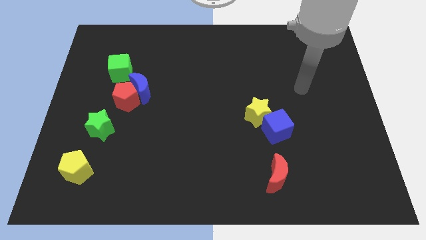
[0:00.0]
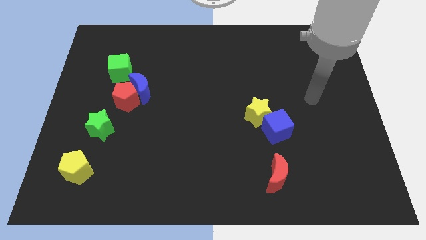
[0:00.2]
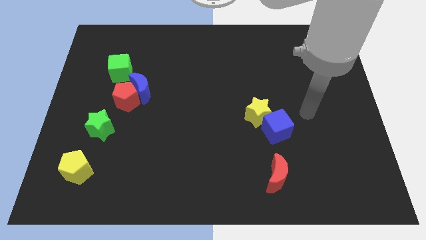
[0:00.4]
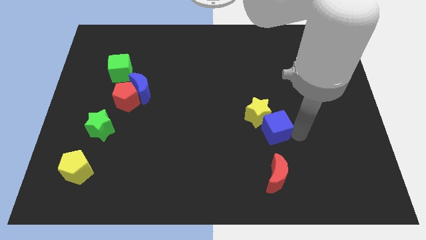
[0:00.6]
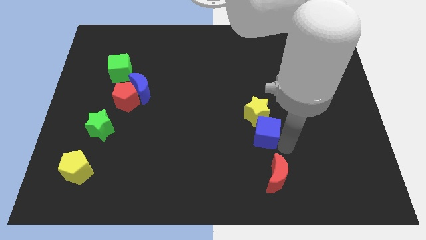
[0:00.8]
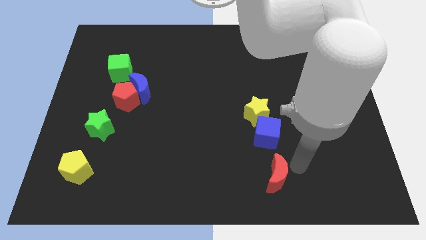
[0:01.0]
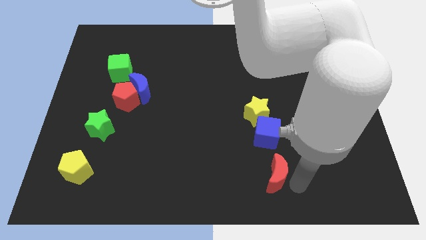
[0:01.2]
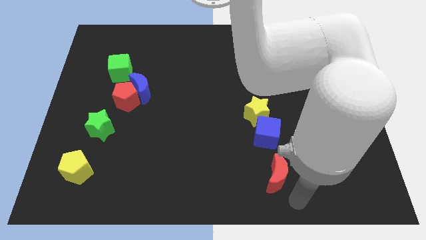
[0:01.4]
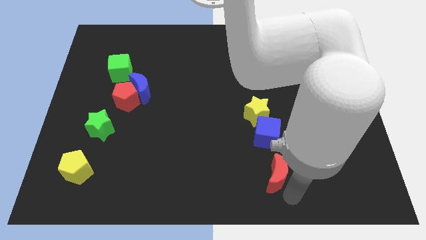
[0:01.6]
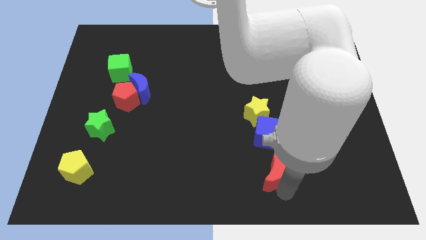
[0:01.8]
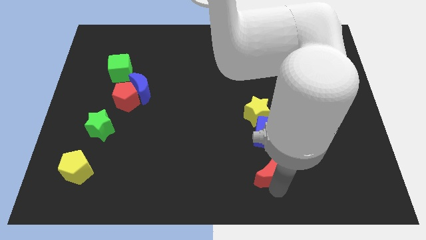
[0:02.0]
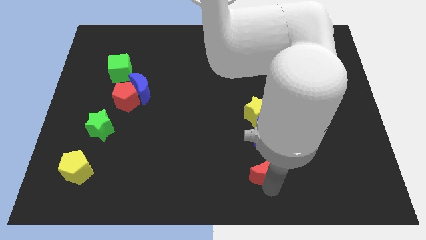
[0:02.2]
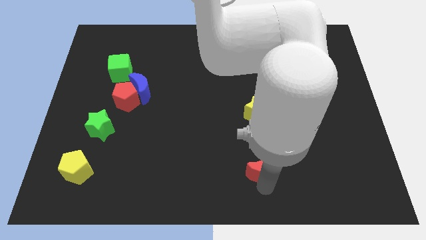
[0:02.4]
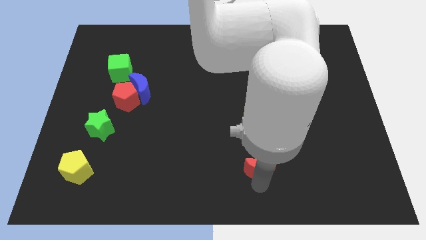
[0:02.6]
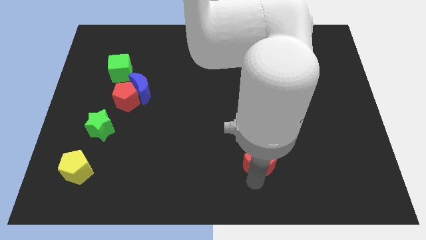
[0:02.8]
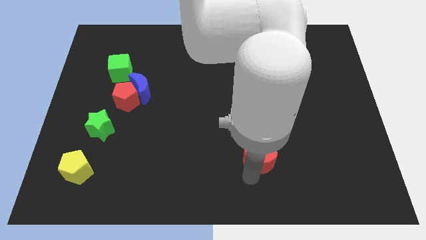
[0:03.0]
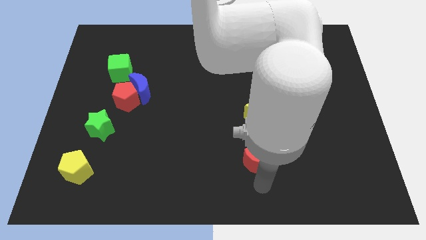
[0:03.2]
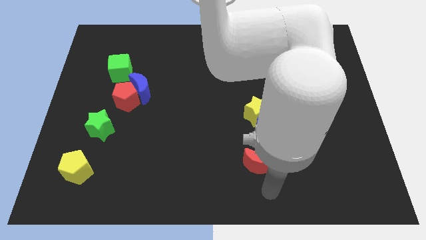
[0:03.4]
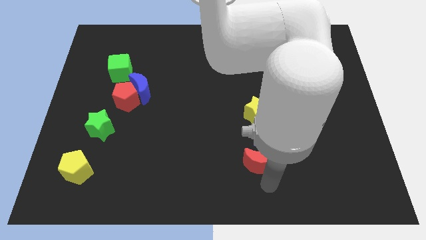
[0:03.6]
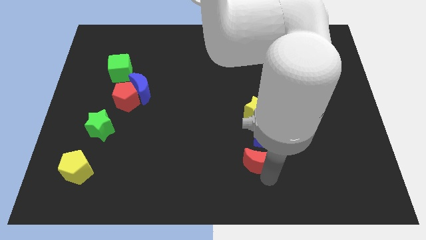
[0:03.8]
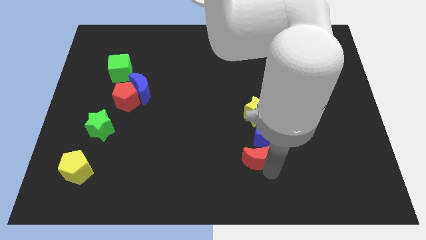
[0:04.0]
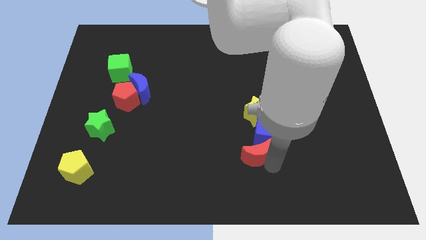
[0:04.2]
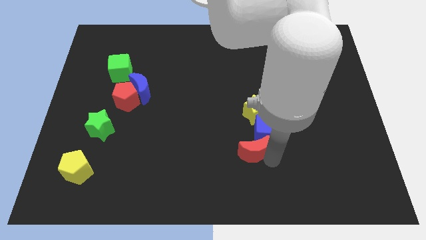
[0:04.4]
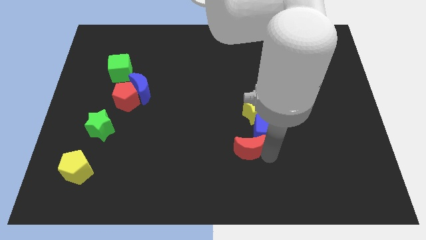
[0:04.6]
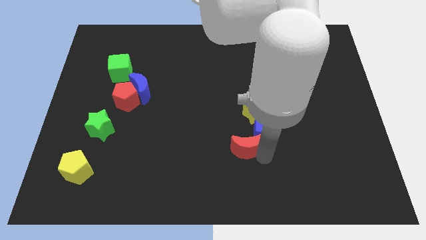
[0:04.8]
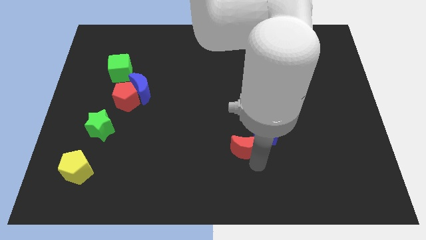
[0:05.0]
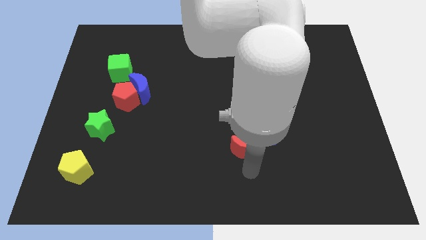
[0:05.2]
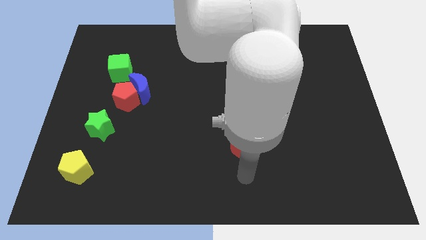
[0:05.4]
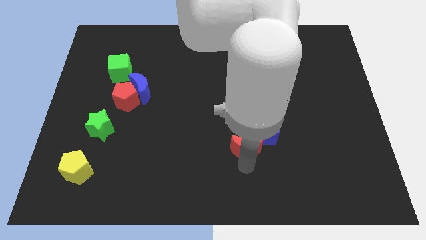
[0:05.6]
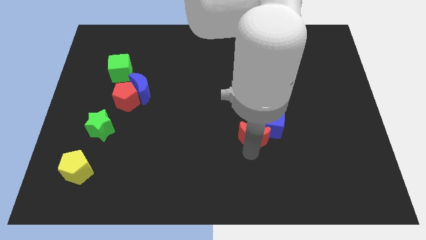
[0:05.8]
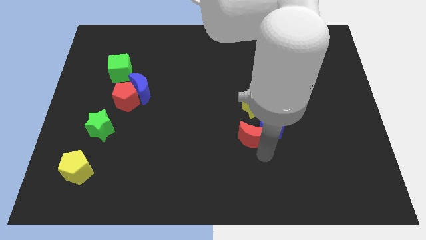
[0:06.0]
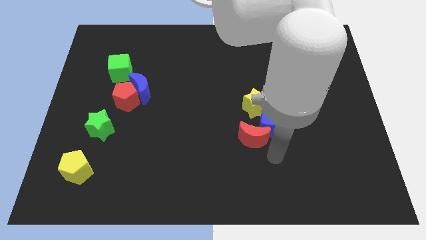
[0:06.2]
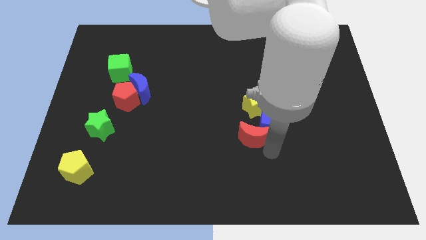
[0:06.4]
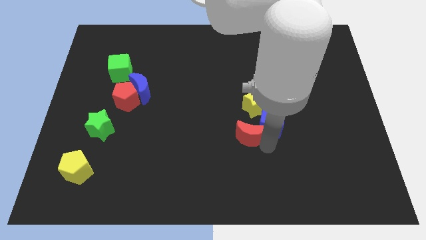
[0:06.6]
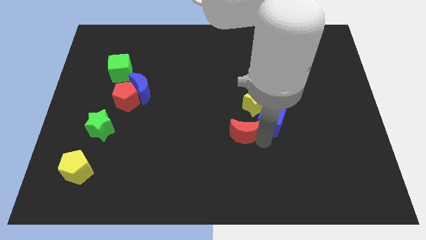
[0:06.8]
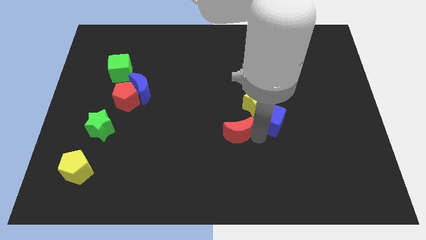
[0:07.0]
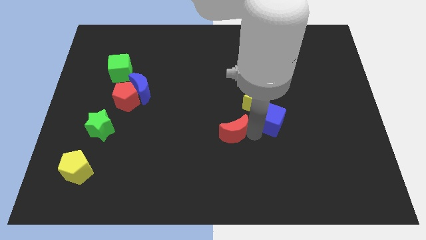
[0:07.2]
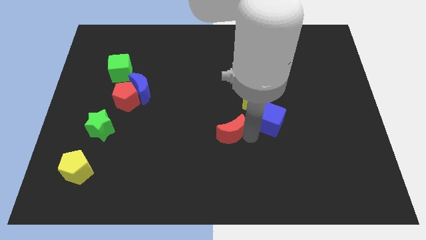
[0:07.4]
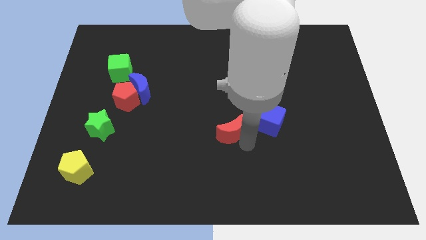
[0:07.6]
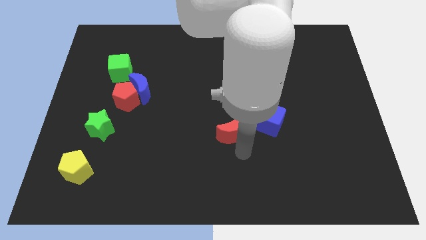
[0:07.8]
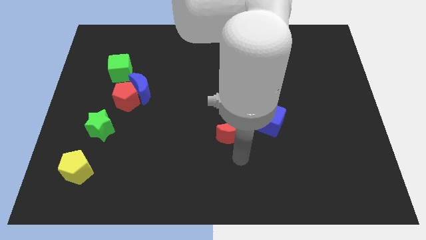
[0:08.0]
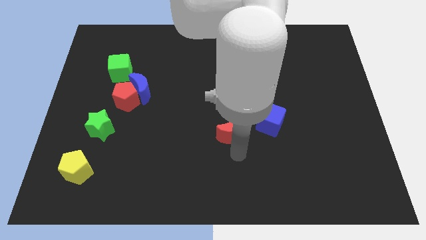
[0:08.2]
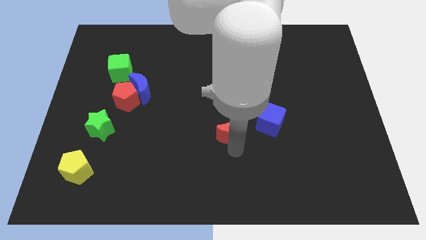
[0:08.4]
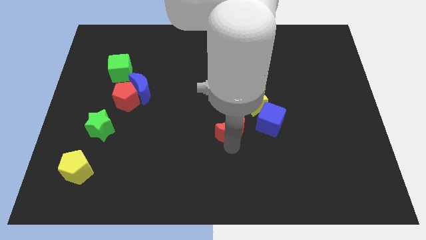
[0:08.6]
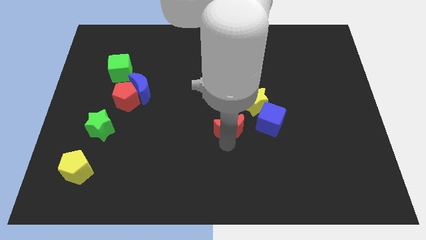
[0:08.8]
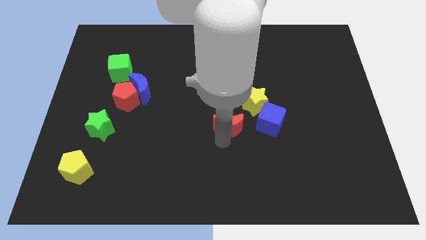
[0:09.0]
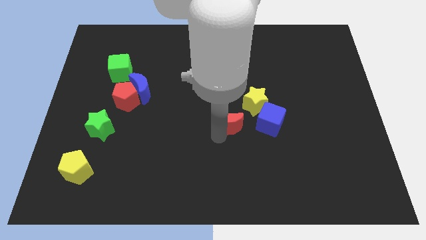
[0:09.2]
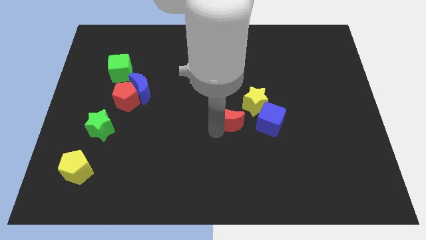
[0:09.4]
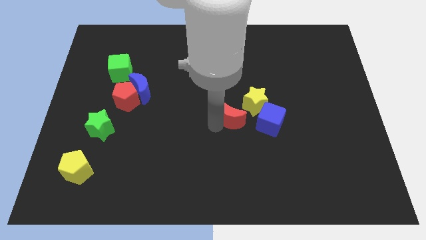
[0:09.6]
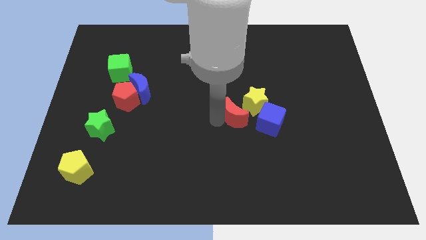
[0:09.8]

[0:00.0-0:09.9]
move the red moon diagonally up and to the left of the blue cube

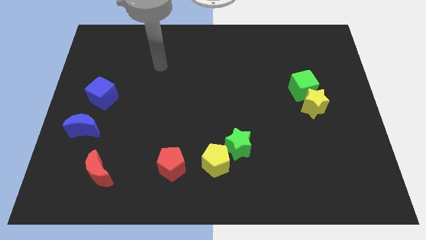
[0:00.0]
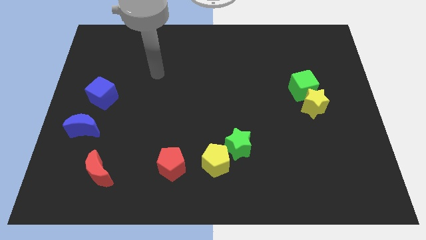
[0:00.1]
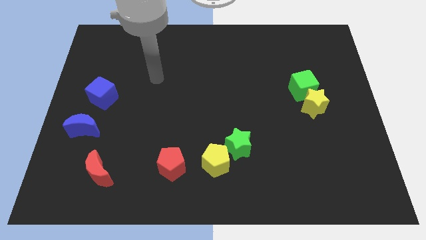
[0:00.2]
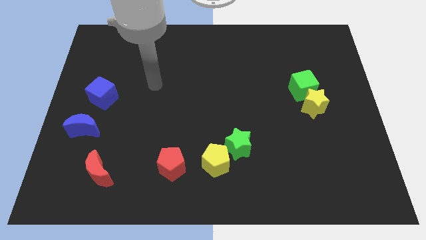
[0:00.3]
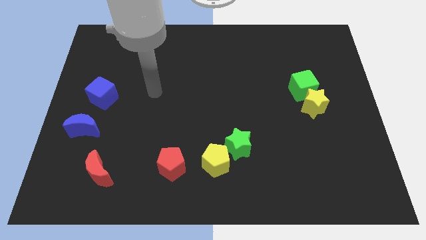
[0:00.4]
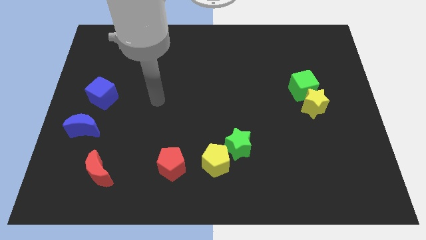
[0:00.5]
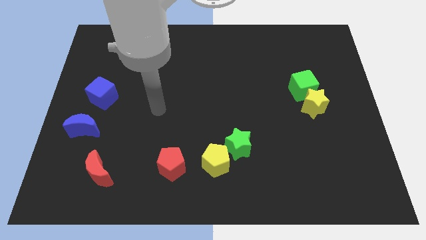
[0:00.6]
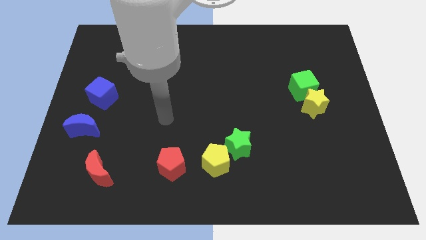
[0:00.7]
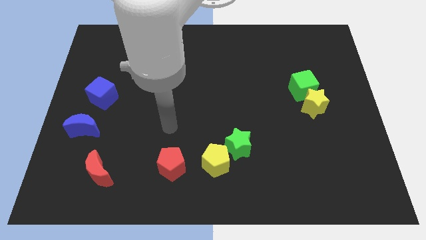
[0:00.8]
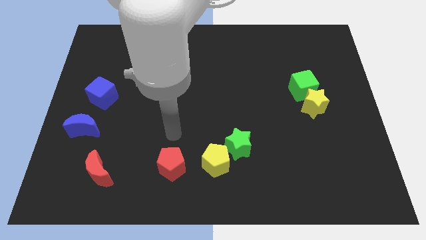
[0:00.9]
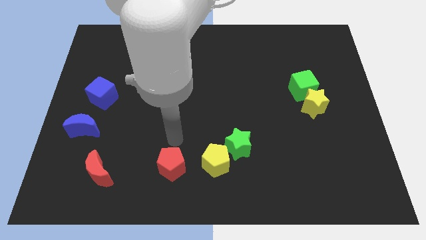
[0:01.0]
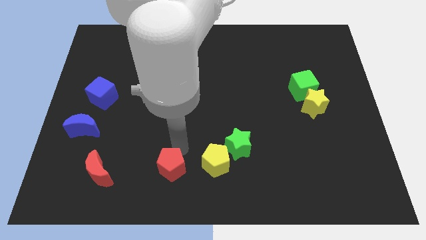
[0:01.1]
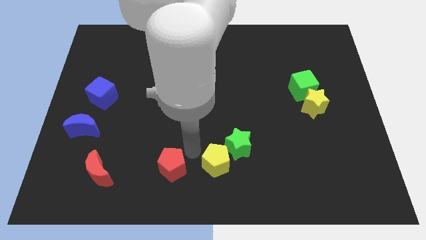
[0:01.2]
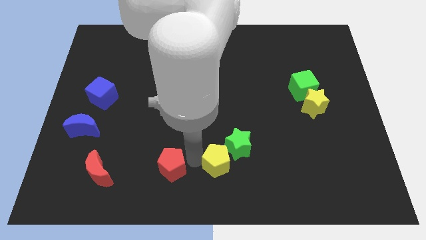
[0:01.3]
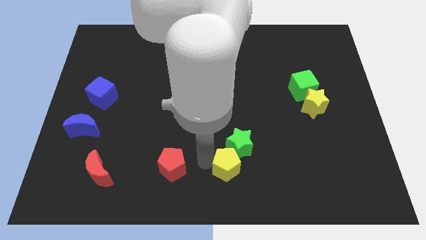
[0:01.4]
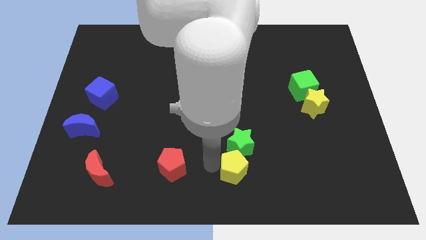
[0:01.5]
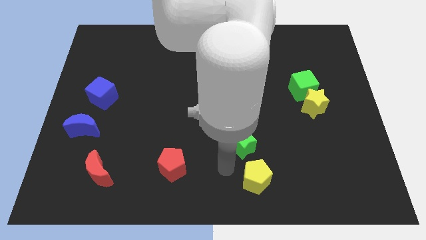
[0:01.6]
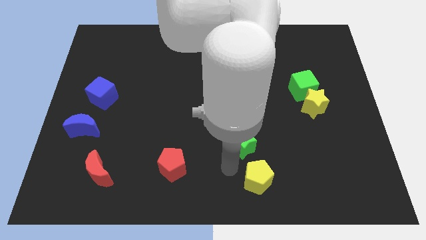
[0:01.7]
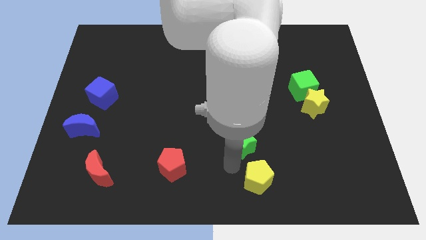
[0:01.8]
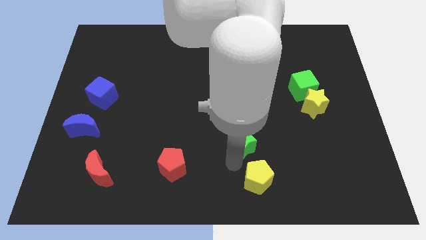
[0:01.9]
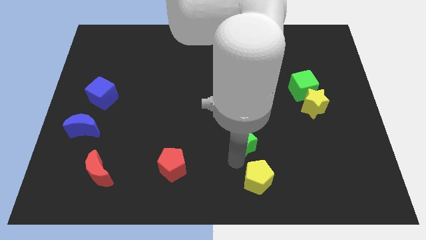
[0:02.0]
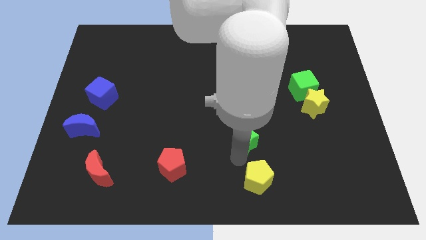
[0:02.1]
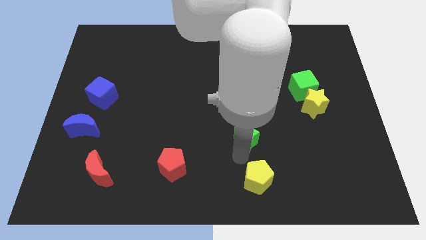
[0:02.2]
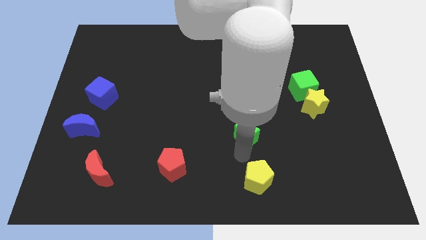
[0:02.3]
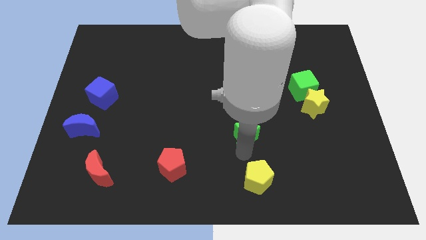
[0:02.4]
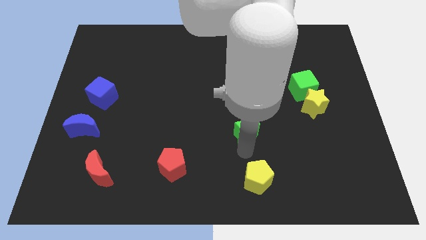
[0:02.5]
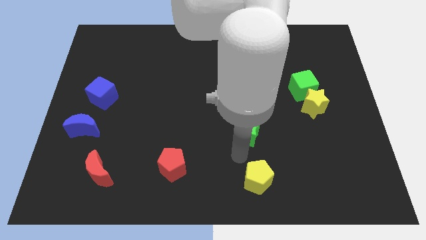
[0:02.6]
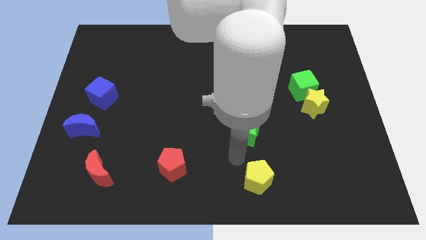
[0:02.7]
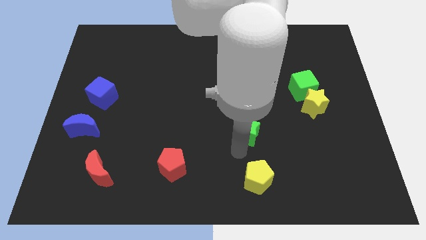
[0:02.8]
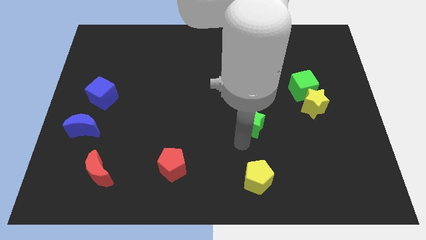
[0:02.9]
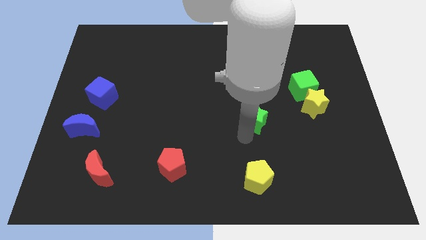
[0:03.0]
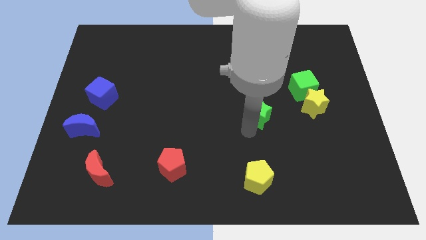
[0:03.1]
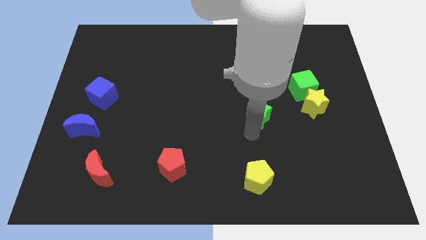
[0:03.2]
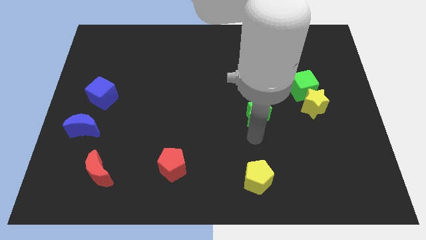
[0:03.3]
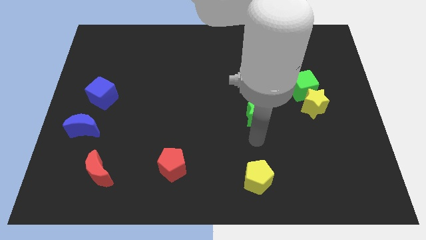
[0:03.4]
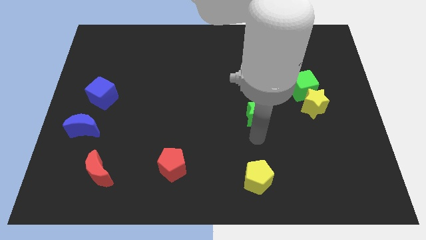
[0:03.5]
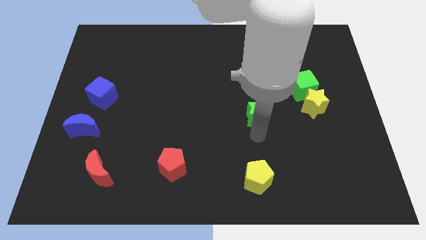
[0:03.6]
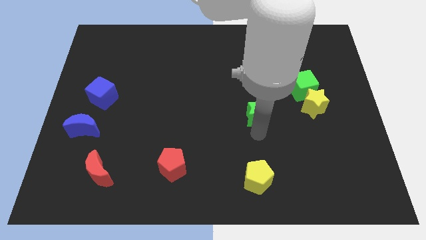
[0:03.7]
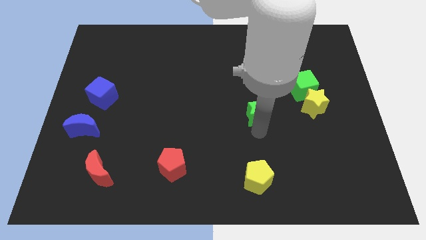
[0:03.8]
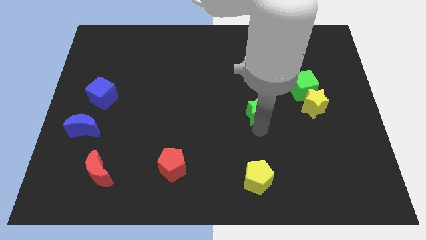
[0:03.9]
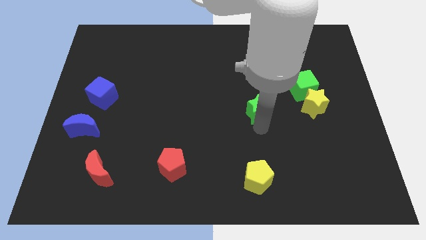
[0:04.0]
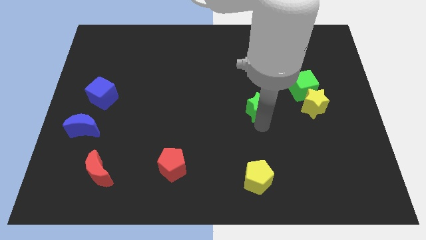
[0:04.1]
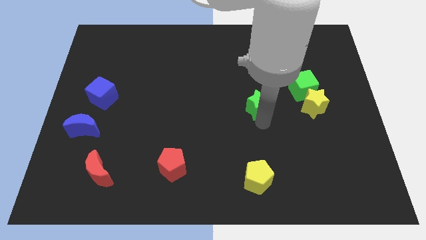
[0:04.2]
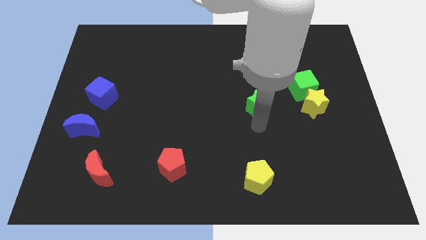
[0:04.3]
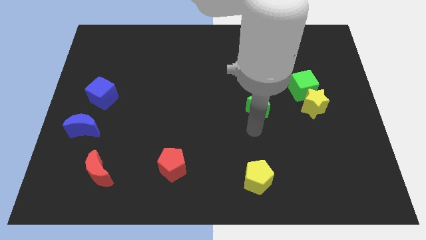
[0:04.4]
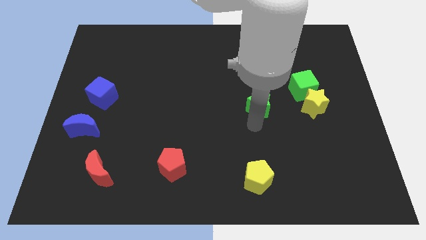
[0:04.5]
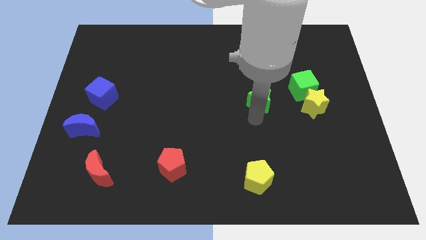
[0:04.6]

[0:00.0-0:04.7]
slide the green star to the left of the green cube
